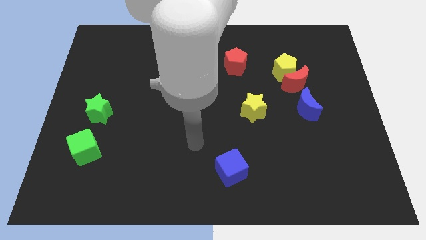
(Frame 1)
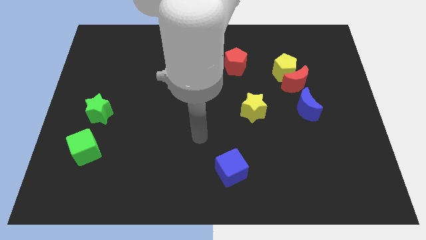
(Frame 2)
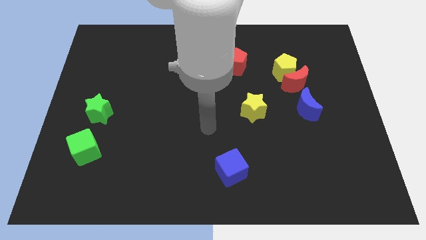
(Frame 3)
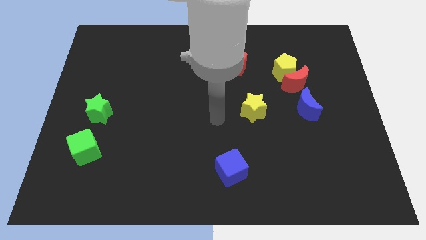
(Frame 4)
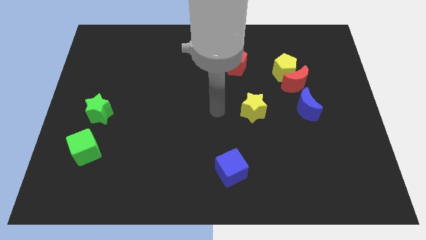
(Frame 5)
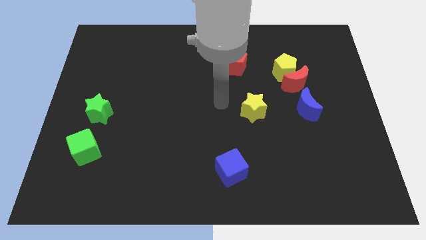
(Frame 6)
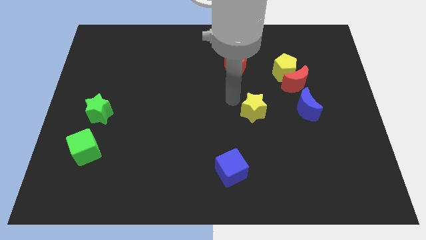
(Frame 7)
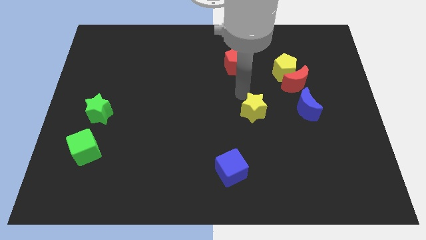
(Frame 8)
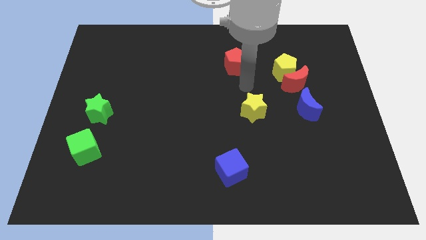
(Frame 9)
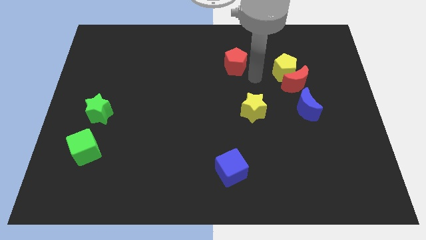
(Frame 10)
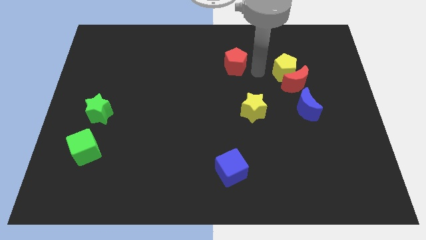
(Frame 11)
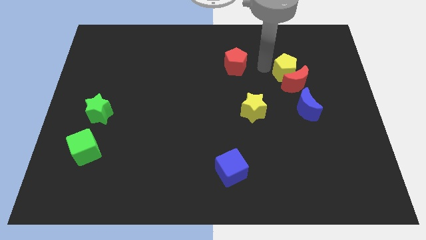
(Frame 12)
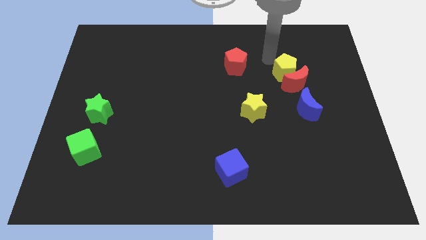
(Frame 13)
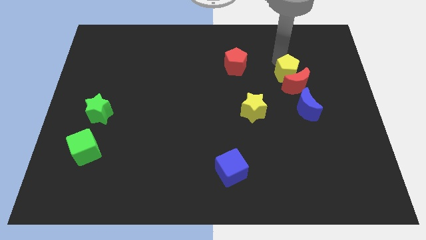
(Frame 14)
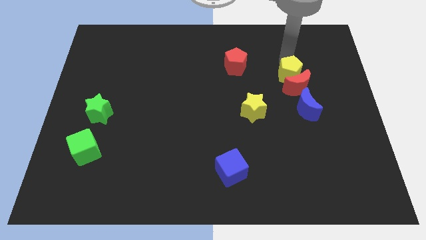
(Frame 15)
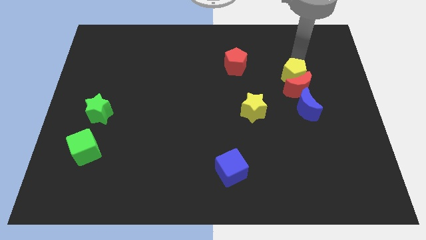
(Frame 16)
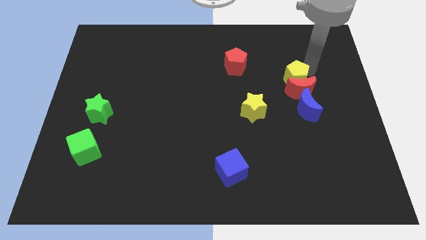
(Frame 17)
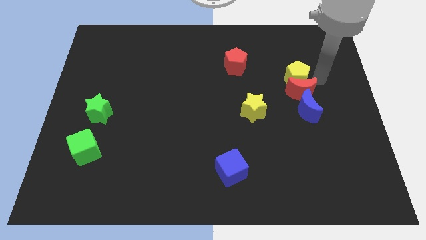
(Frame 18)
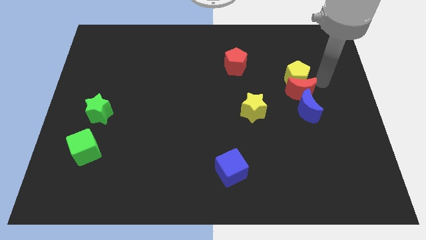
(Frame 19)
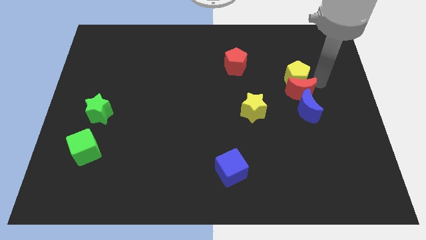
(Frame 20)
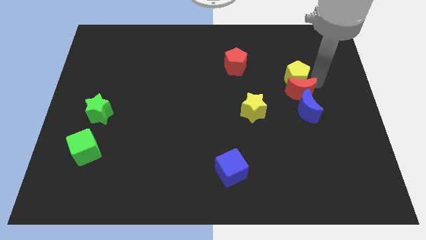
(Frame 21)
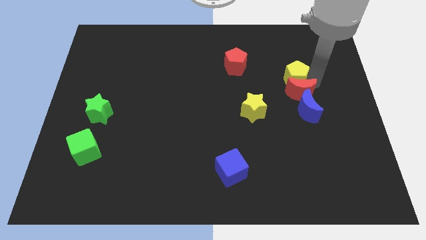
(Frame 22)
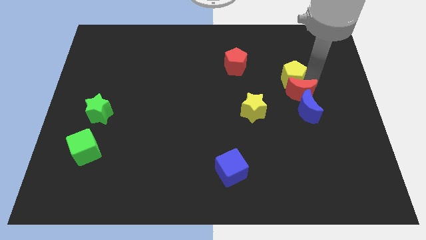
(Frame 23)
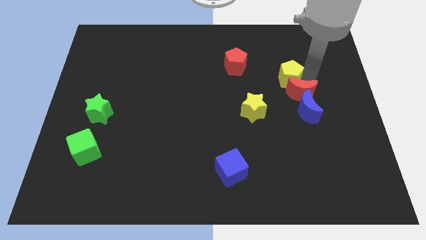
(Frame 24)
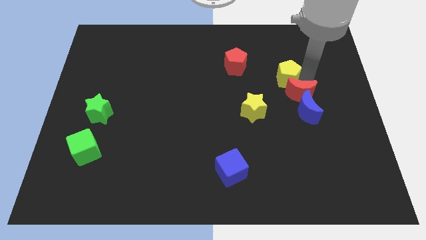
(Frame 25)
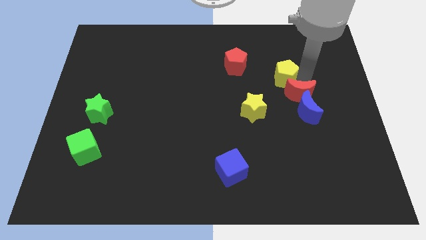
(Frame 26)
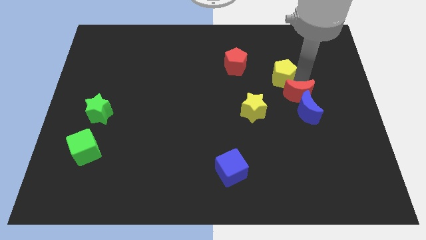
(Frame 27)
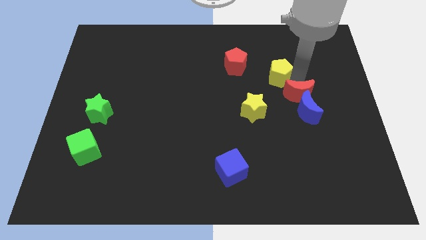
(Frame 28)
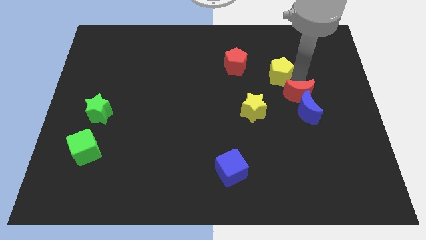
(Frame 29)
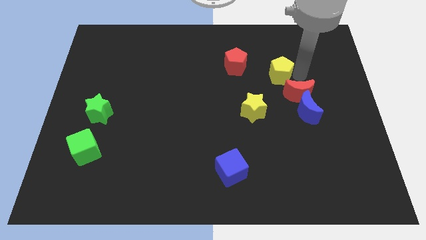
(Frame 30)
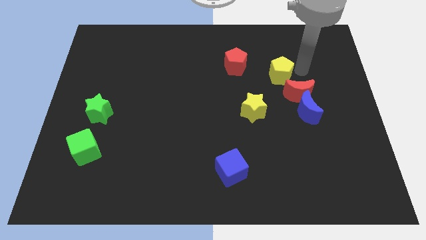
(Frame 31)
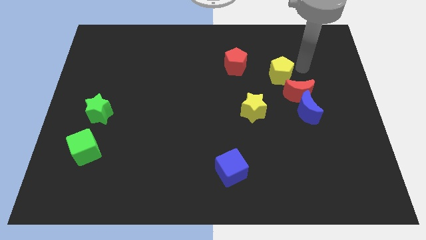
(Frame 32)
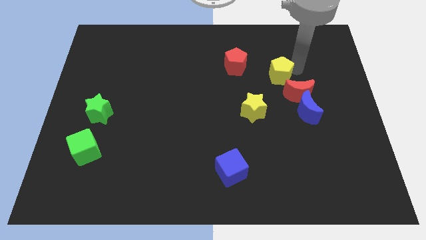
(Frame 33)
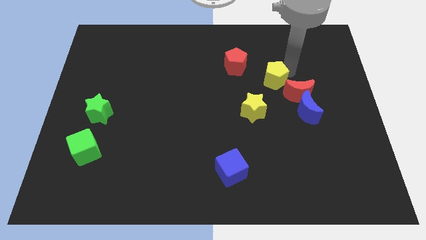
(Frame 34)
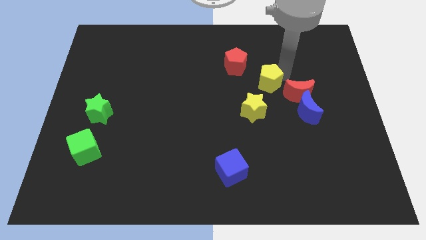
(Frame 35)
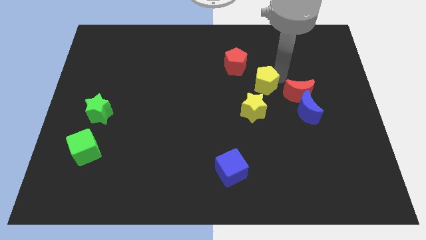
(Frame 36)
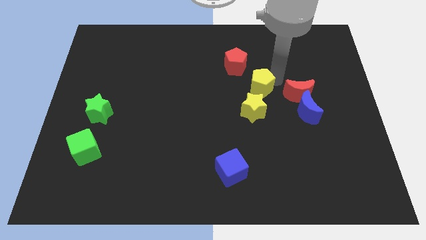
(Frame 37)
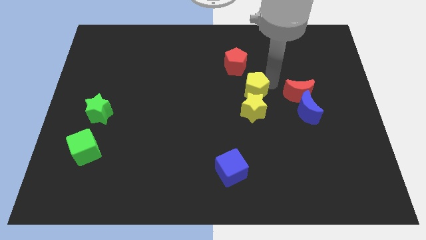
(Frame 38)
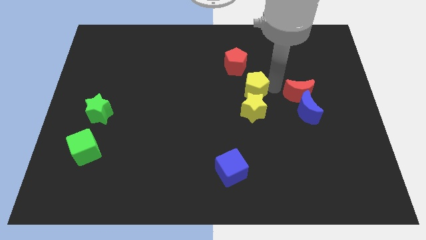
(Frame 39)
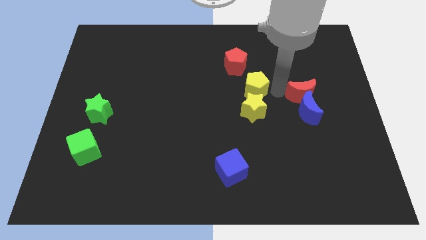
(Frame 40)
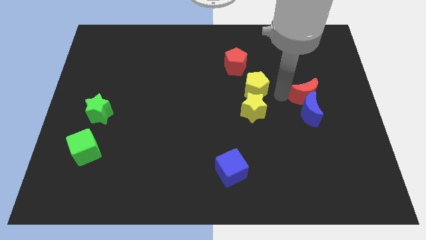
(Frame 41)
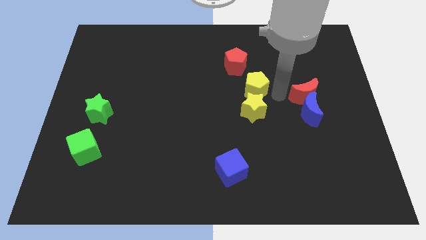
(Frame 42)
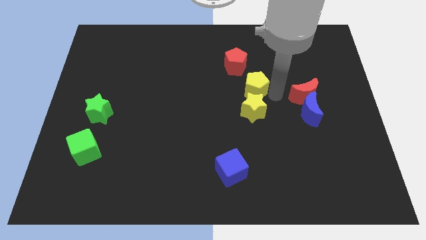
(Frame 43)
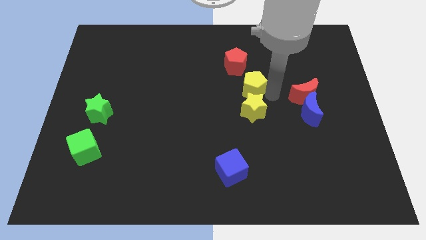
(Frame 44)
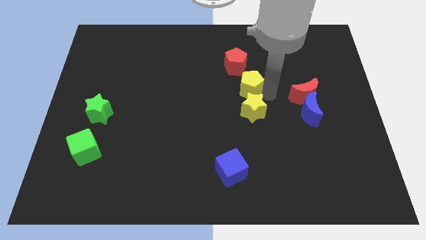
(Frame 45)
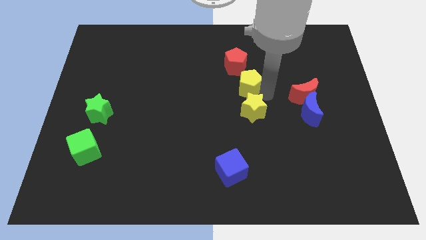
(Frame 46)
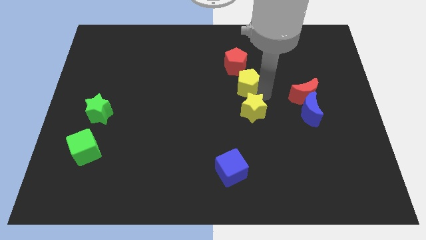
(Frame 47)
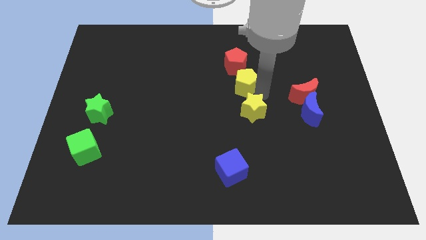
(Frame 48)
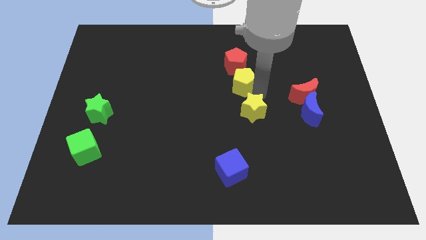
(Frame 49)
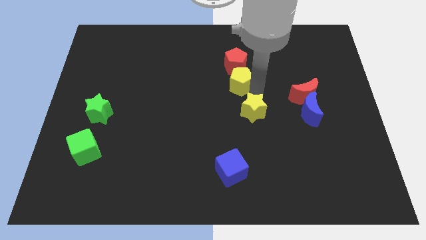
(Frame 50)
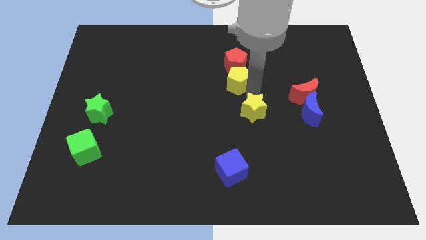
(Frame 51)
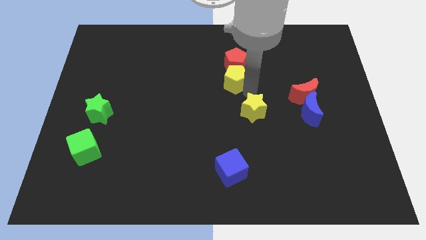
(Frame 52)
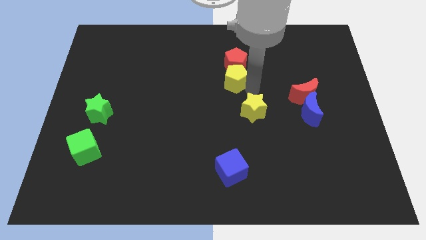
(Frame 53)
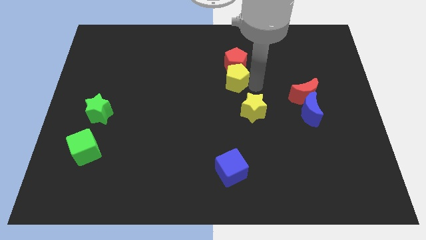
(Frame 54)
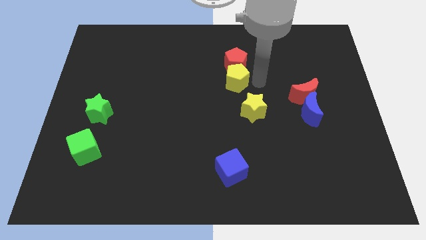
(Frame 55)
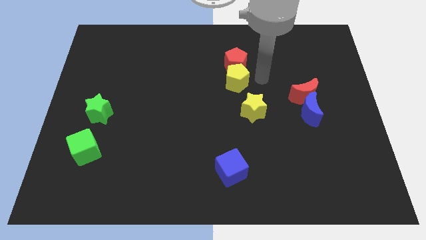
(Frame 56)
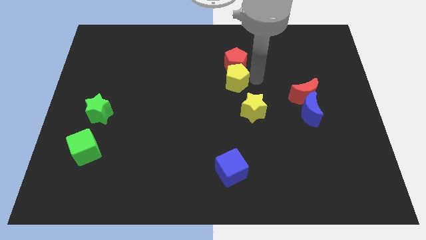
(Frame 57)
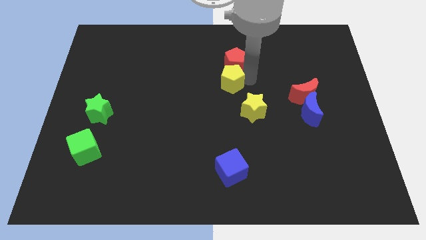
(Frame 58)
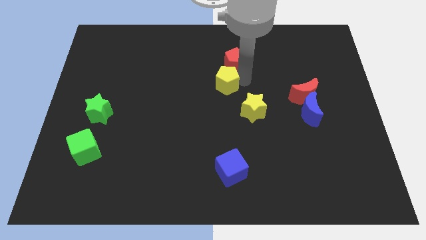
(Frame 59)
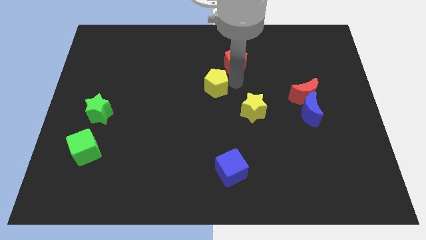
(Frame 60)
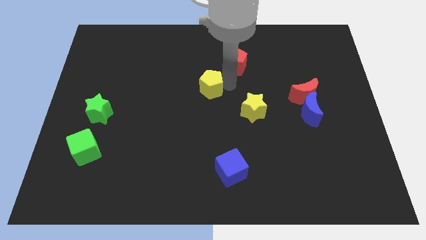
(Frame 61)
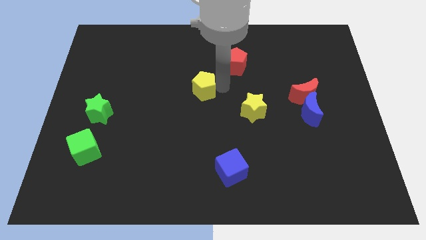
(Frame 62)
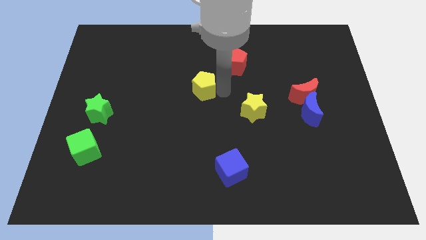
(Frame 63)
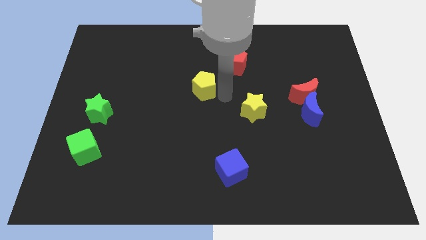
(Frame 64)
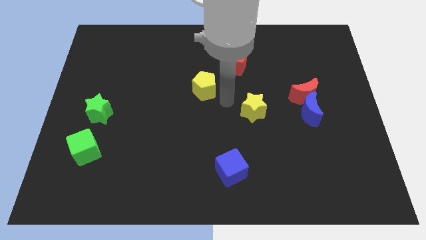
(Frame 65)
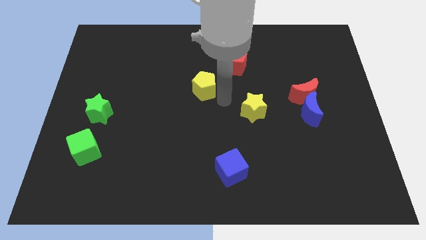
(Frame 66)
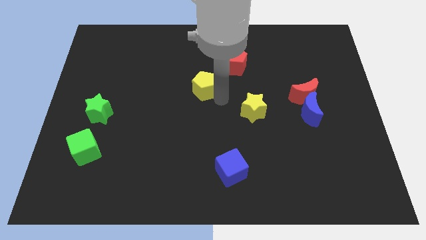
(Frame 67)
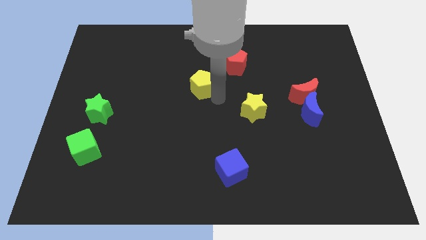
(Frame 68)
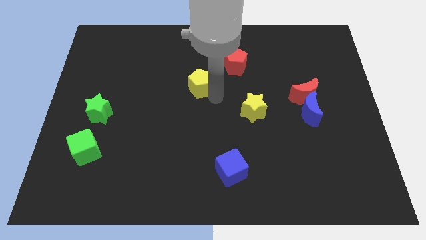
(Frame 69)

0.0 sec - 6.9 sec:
push the yellow pentagon to the left

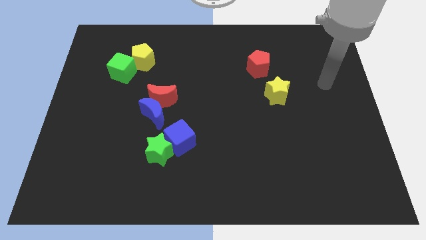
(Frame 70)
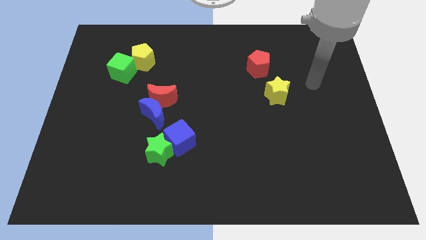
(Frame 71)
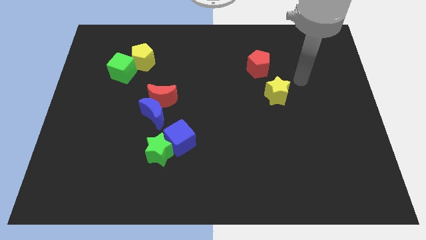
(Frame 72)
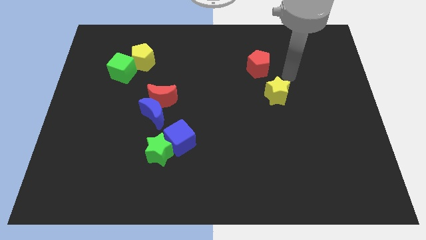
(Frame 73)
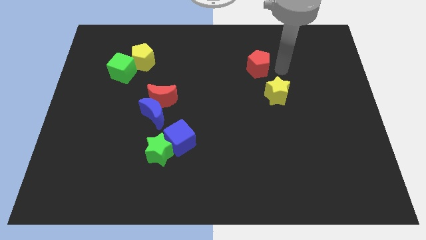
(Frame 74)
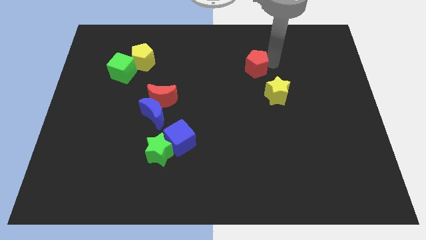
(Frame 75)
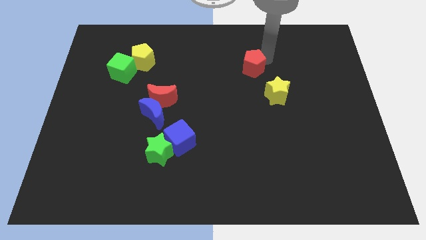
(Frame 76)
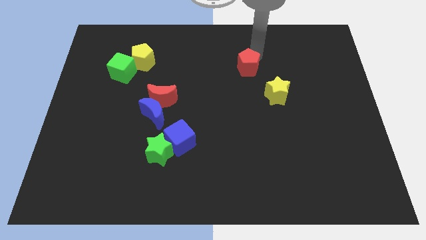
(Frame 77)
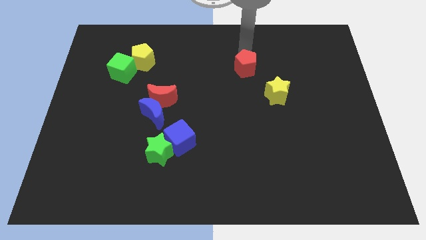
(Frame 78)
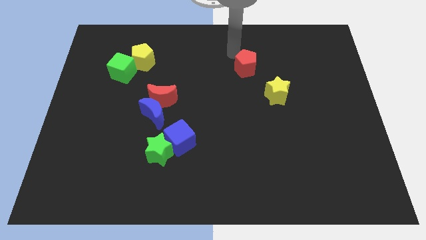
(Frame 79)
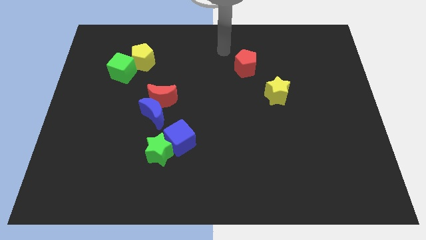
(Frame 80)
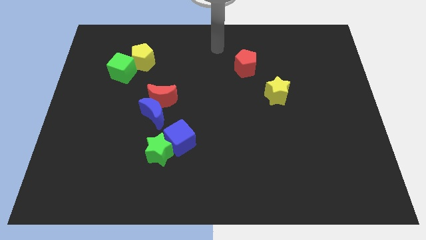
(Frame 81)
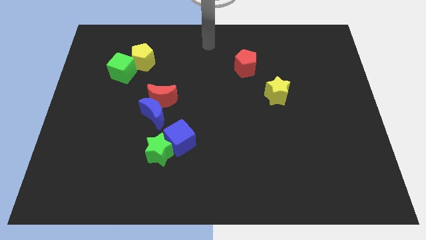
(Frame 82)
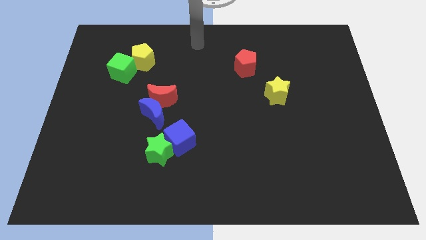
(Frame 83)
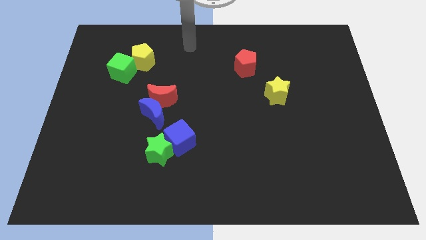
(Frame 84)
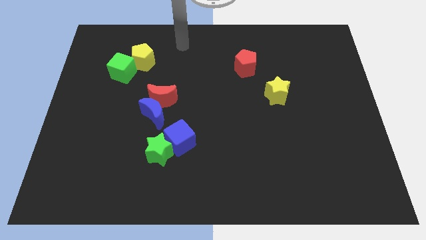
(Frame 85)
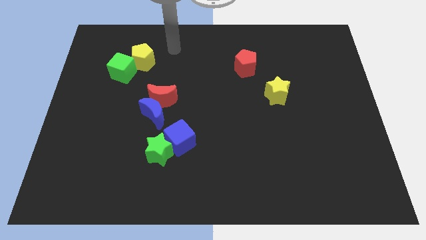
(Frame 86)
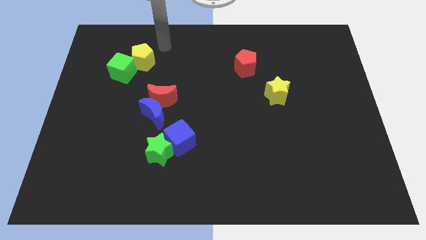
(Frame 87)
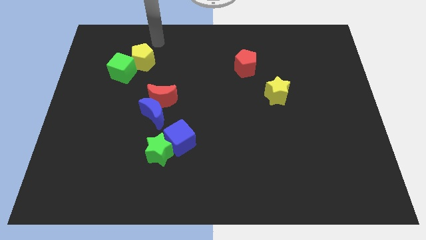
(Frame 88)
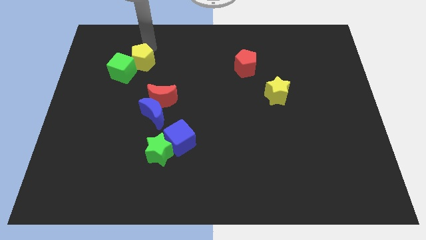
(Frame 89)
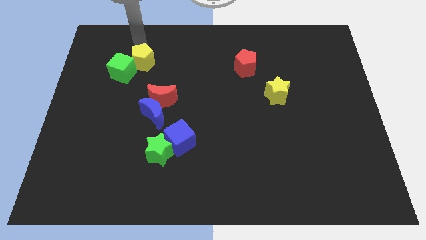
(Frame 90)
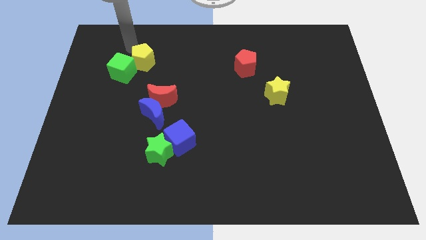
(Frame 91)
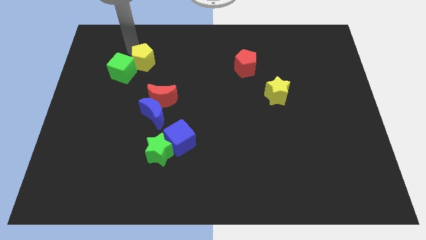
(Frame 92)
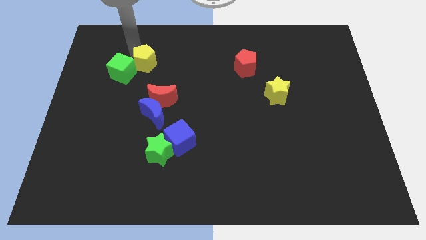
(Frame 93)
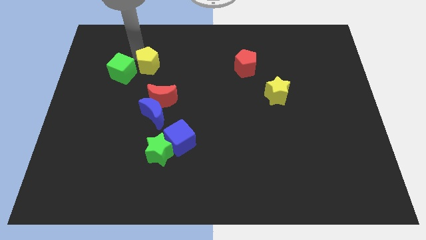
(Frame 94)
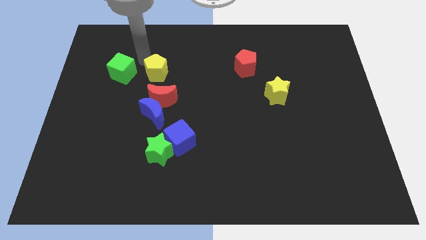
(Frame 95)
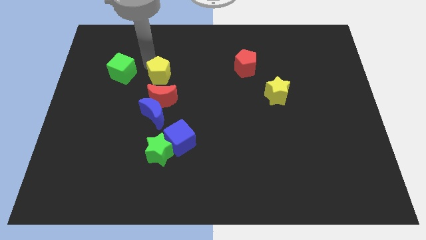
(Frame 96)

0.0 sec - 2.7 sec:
push the yellow pentagon a bit downwards and then right
